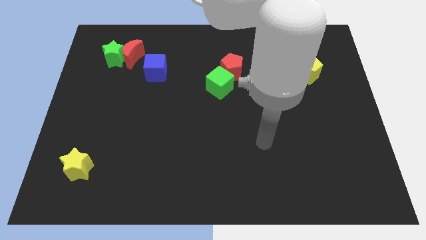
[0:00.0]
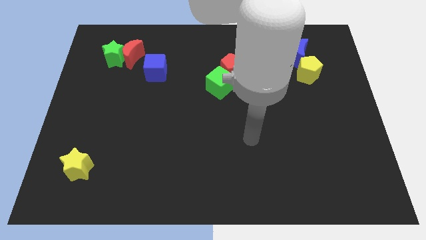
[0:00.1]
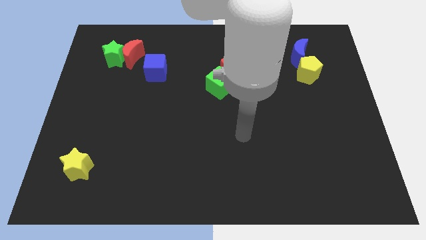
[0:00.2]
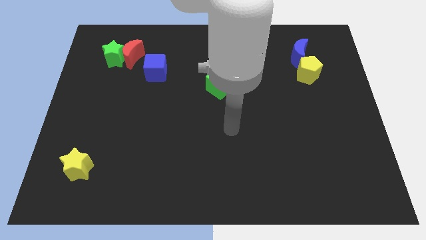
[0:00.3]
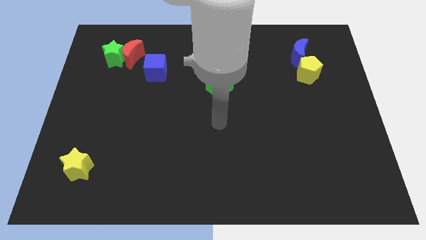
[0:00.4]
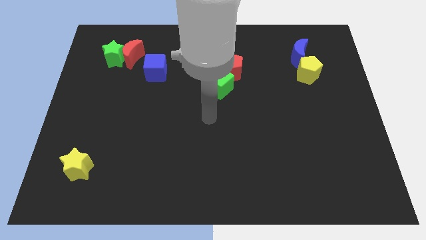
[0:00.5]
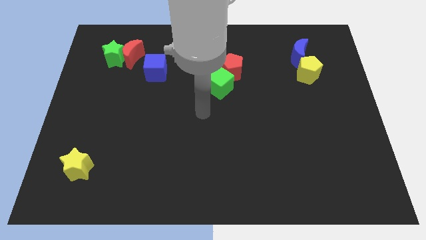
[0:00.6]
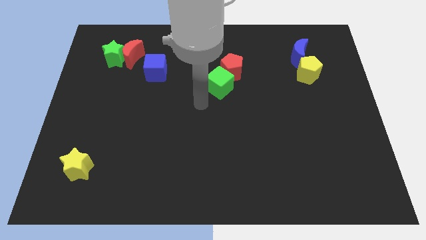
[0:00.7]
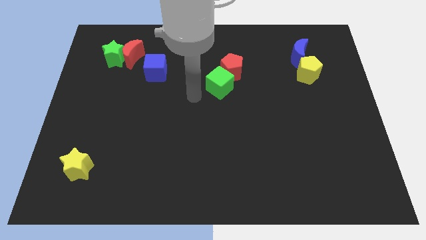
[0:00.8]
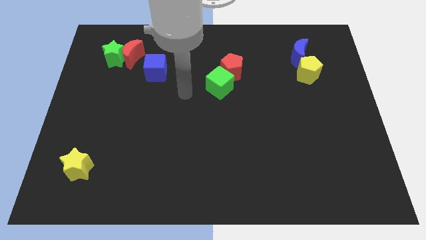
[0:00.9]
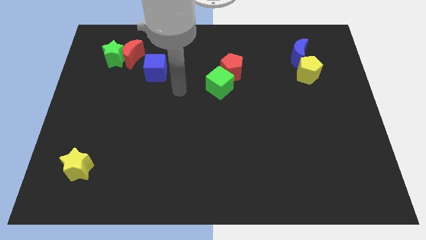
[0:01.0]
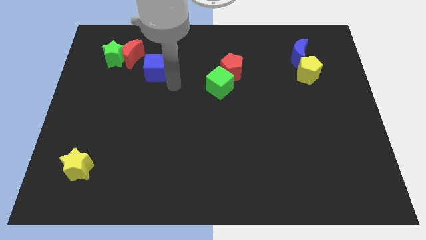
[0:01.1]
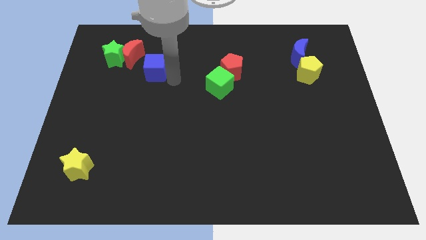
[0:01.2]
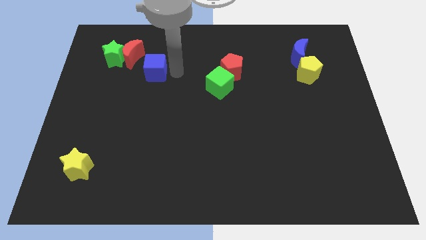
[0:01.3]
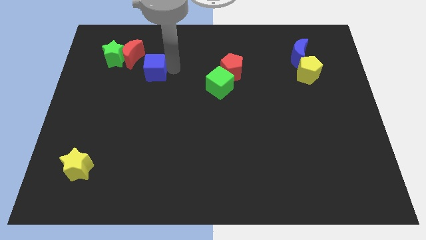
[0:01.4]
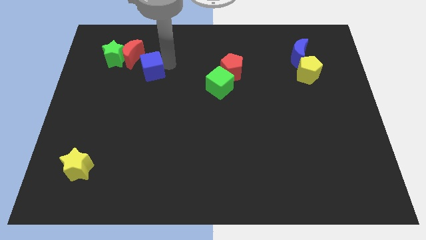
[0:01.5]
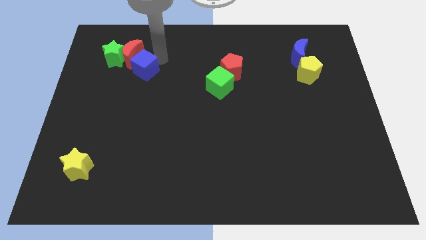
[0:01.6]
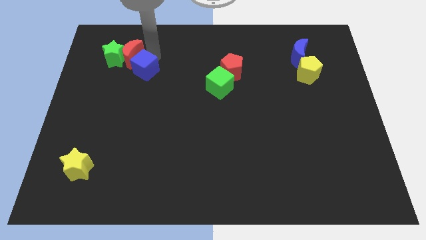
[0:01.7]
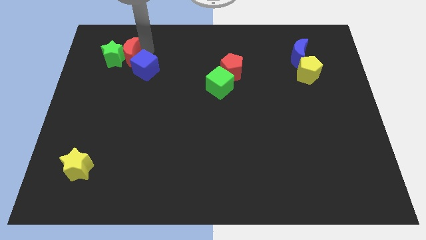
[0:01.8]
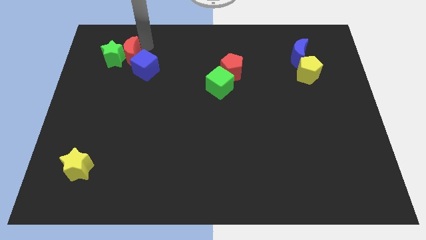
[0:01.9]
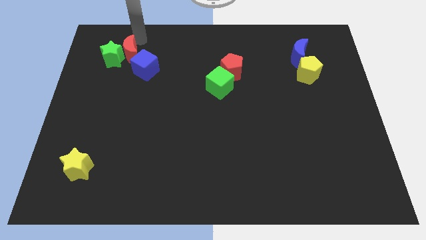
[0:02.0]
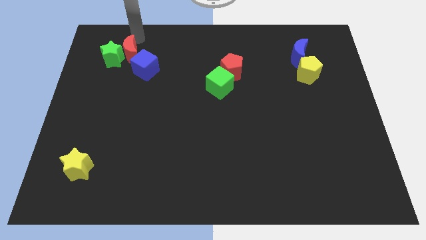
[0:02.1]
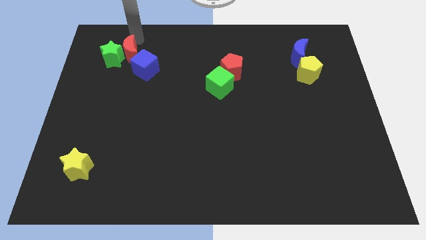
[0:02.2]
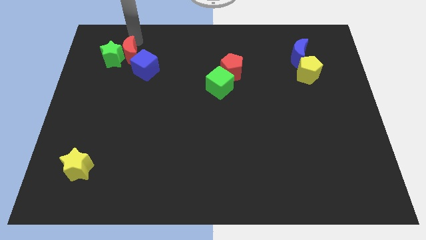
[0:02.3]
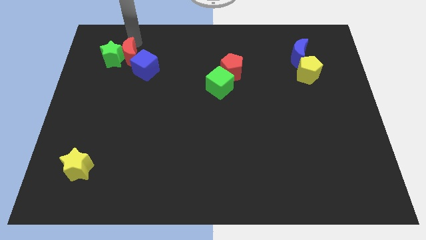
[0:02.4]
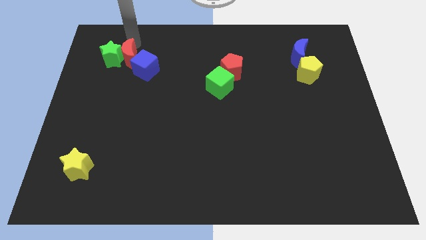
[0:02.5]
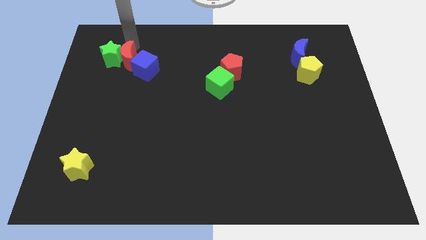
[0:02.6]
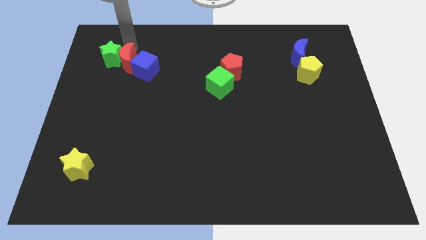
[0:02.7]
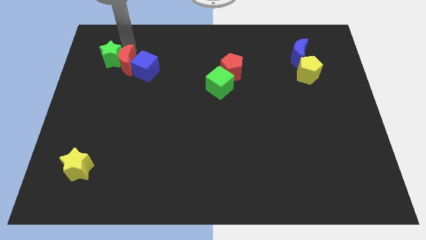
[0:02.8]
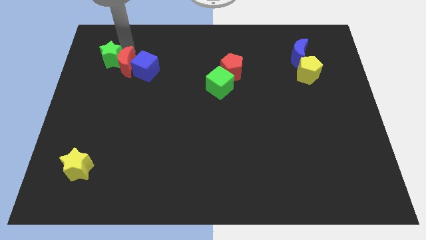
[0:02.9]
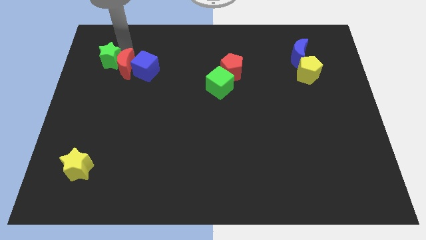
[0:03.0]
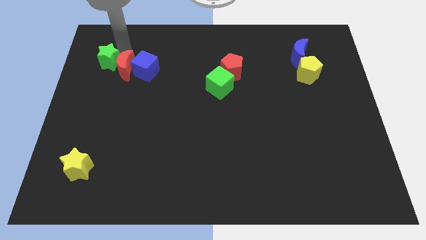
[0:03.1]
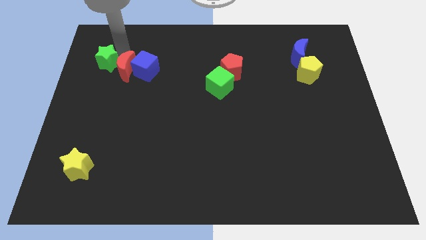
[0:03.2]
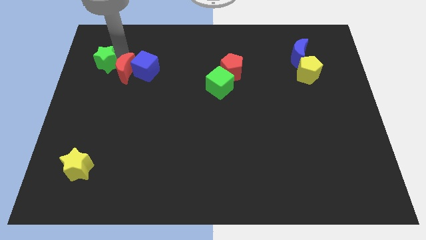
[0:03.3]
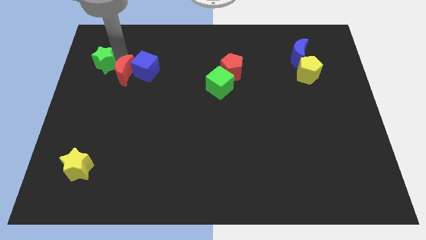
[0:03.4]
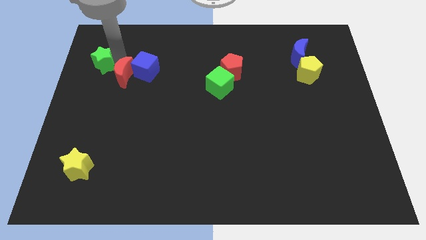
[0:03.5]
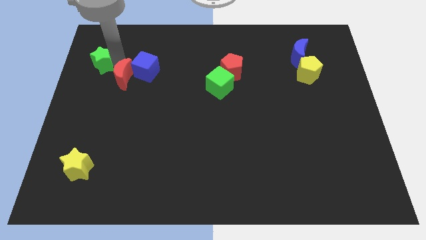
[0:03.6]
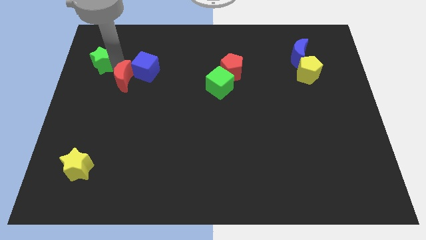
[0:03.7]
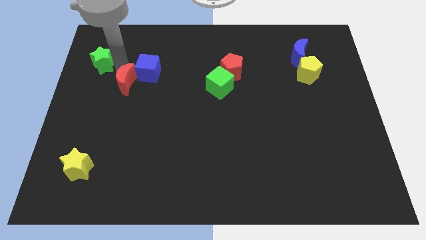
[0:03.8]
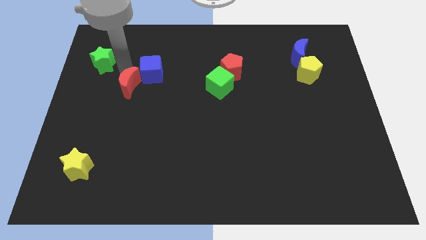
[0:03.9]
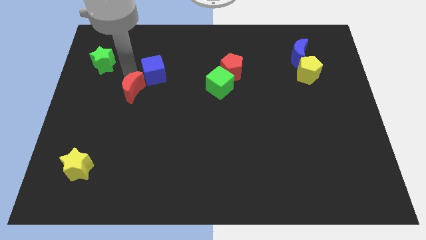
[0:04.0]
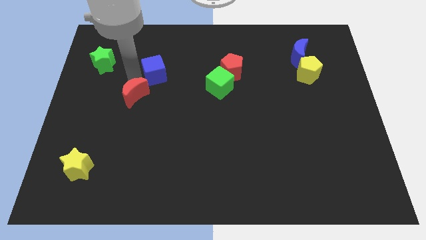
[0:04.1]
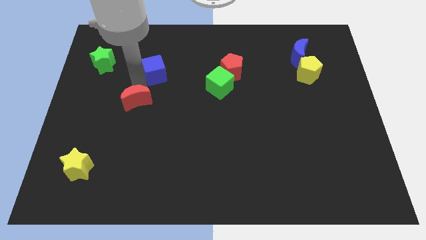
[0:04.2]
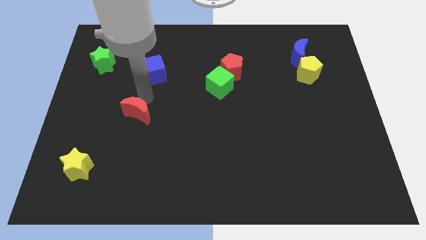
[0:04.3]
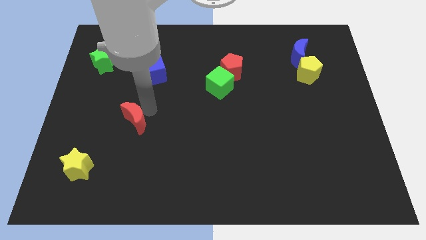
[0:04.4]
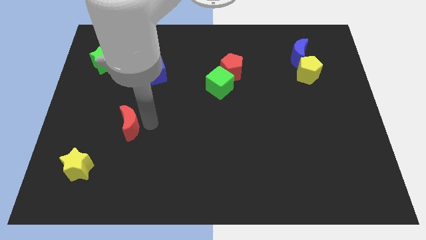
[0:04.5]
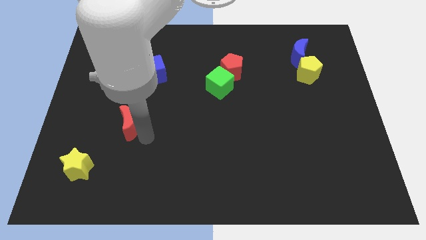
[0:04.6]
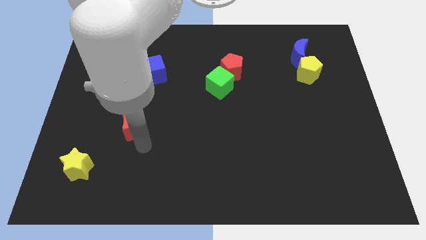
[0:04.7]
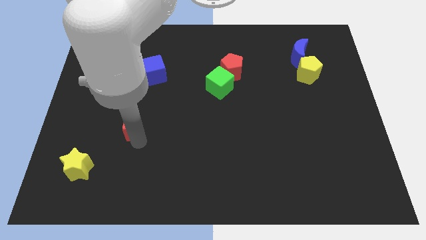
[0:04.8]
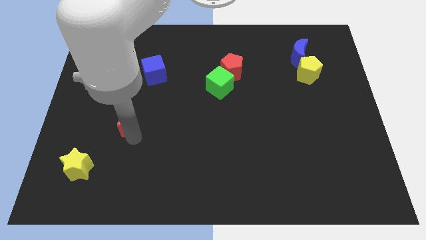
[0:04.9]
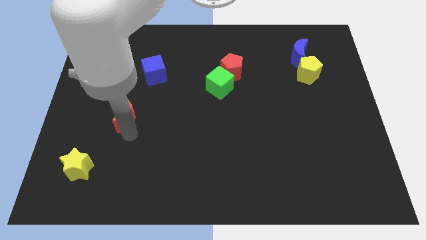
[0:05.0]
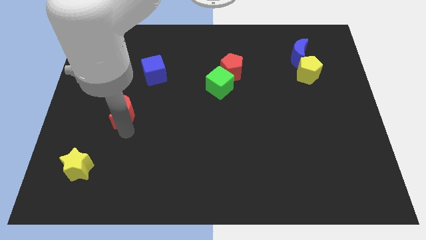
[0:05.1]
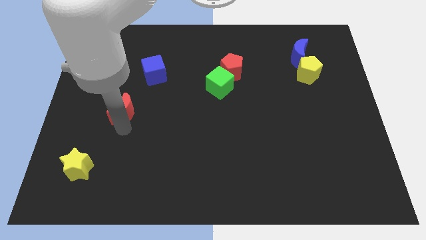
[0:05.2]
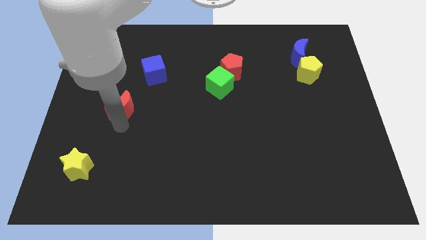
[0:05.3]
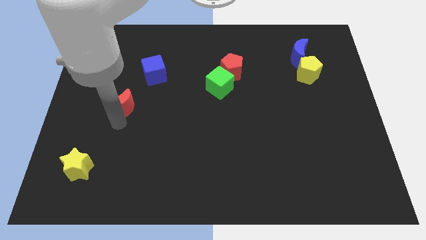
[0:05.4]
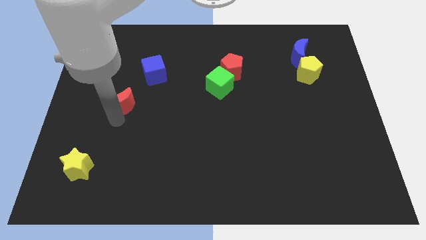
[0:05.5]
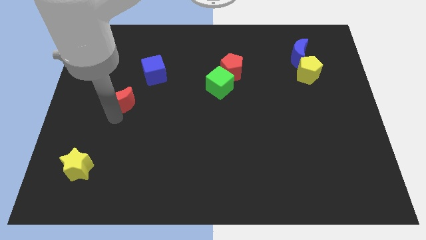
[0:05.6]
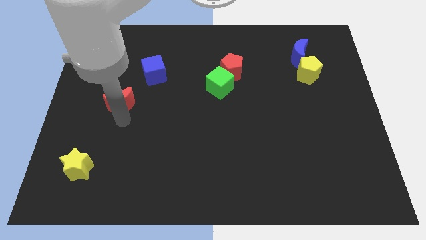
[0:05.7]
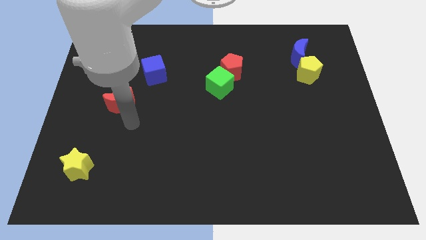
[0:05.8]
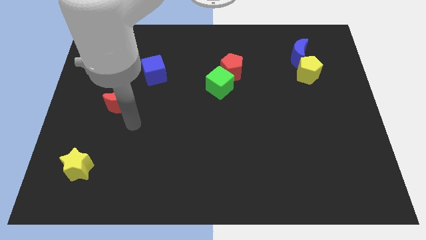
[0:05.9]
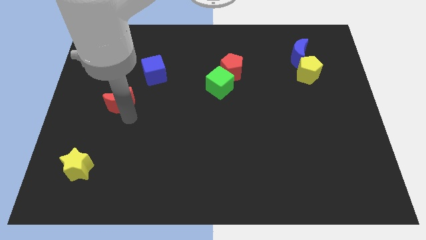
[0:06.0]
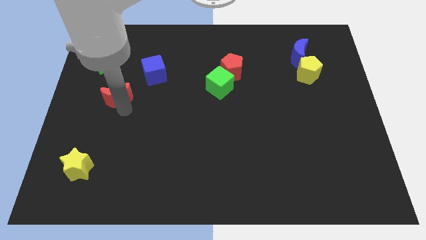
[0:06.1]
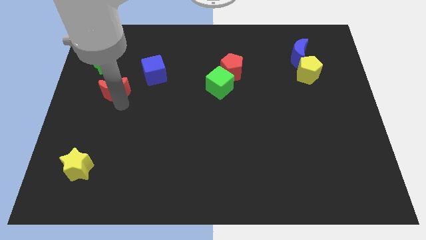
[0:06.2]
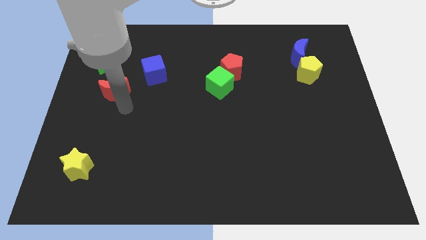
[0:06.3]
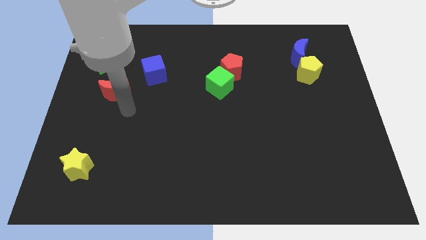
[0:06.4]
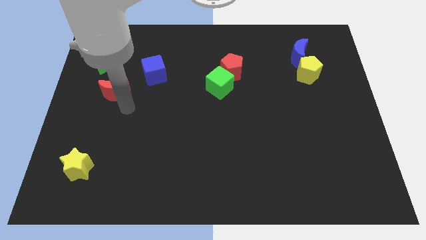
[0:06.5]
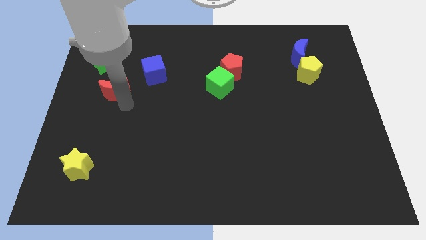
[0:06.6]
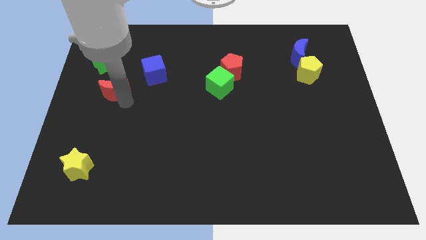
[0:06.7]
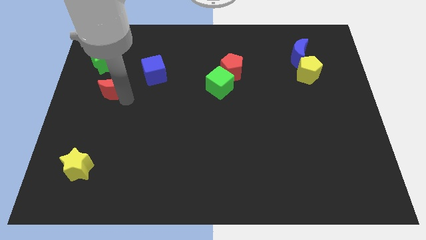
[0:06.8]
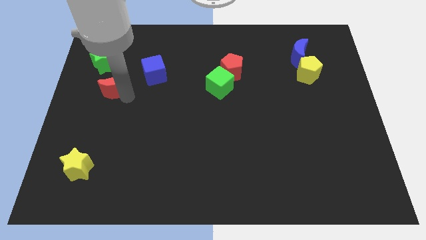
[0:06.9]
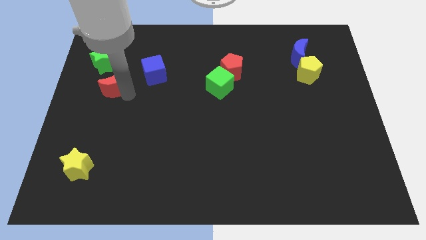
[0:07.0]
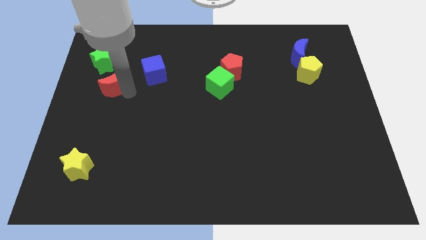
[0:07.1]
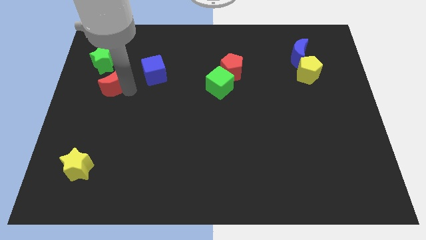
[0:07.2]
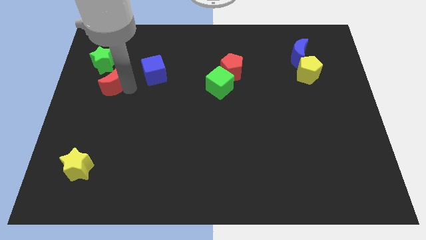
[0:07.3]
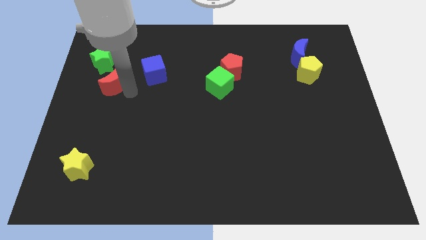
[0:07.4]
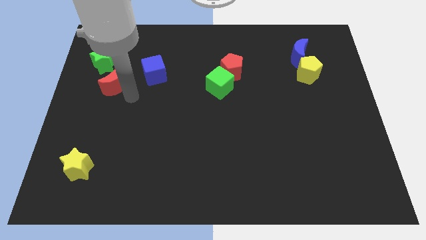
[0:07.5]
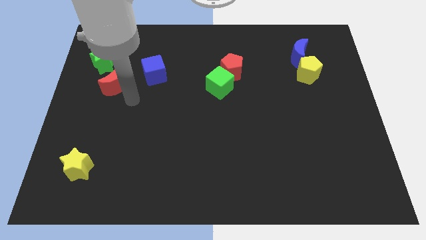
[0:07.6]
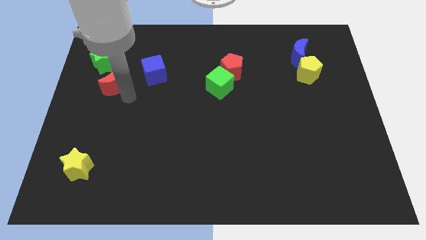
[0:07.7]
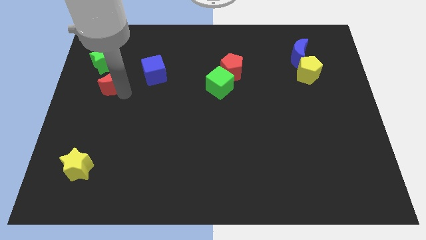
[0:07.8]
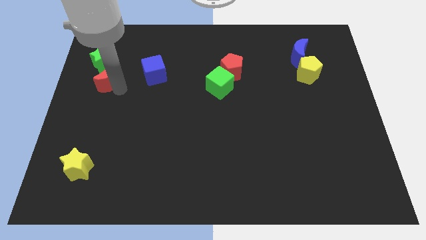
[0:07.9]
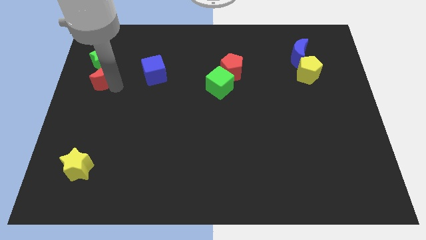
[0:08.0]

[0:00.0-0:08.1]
slide the red moon to the left side of the board
